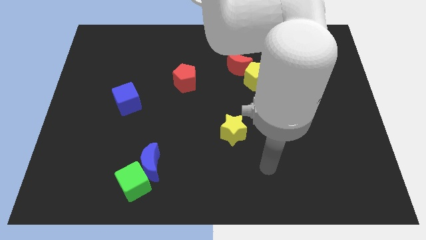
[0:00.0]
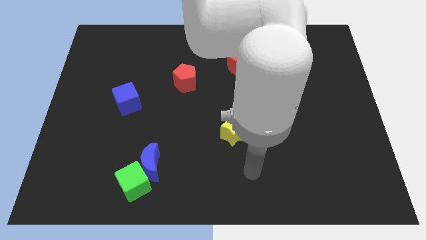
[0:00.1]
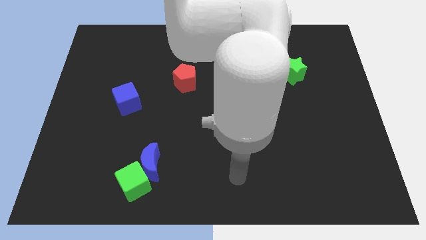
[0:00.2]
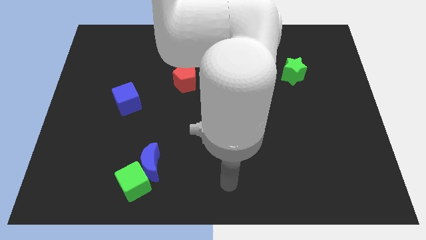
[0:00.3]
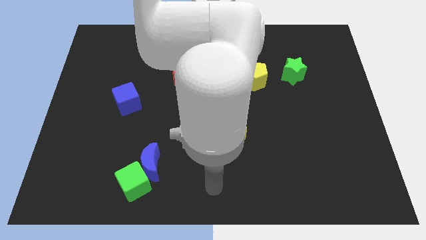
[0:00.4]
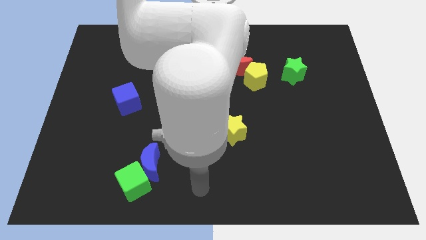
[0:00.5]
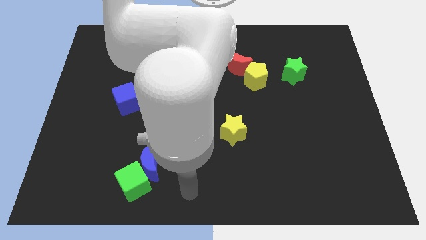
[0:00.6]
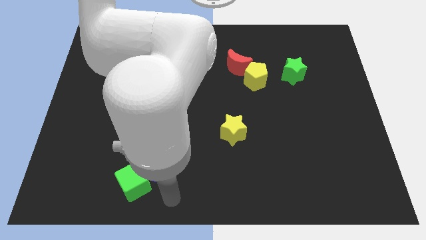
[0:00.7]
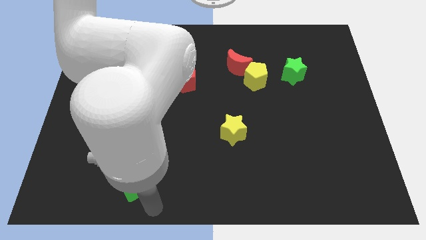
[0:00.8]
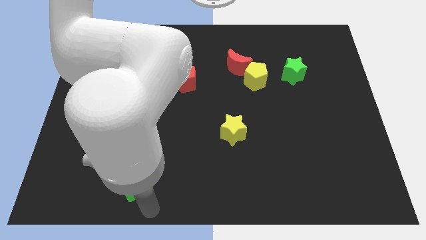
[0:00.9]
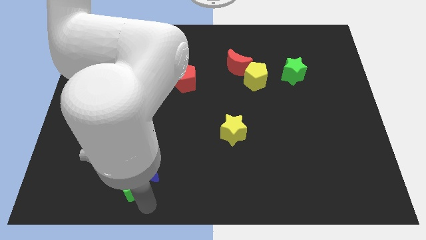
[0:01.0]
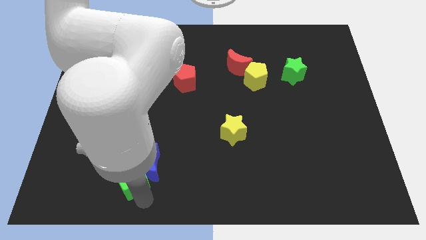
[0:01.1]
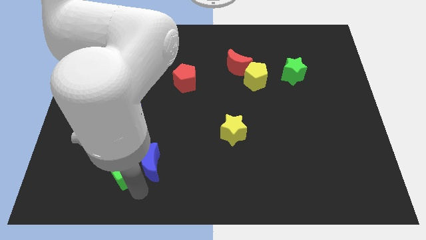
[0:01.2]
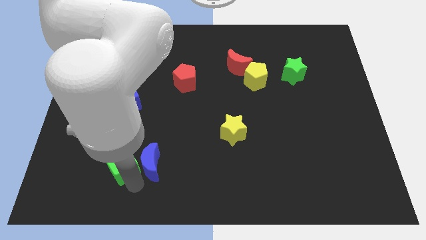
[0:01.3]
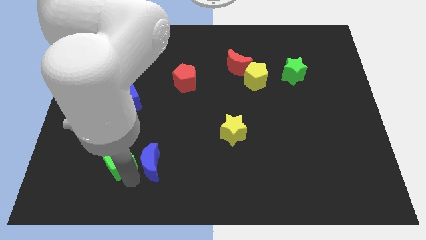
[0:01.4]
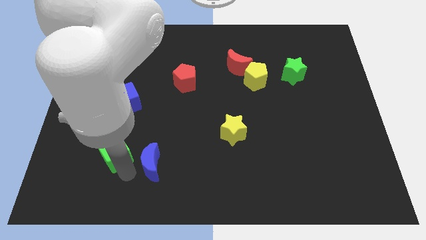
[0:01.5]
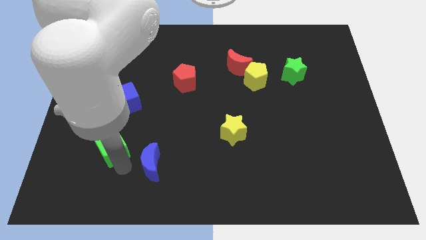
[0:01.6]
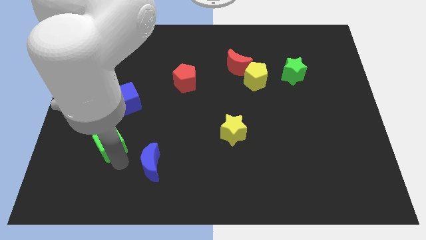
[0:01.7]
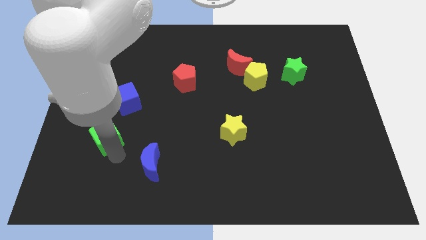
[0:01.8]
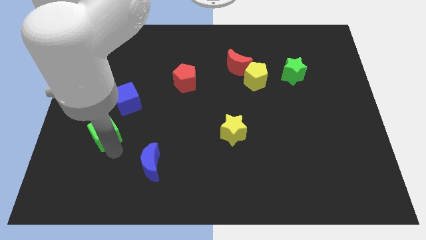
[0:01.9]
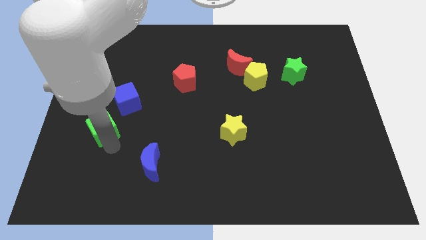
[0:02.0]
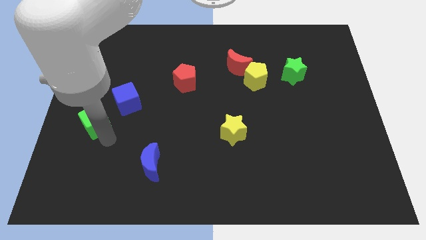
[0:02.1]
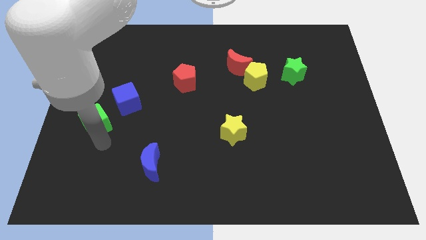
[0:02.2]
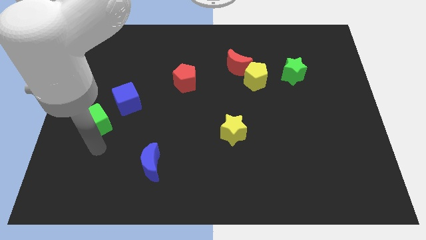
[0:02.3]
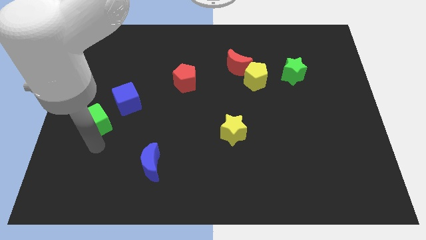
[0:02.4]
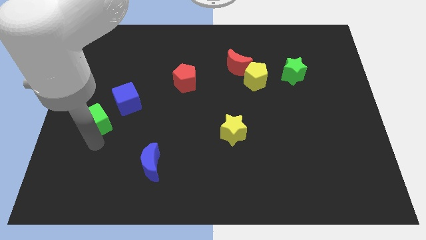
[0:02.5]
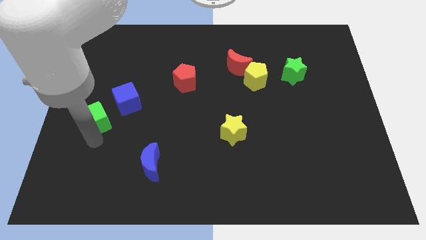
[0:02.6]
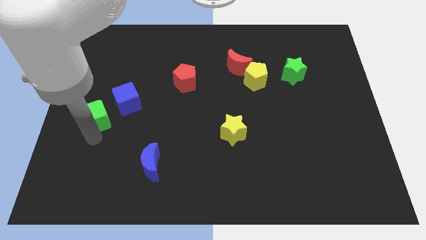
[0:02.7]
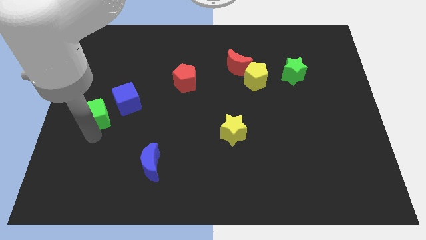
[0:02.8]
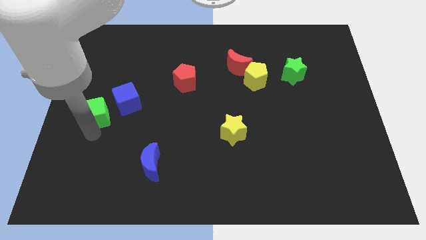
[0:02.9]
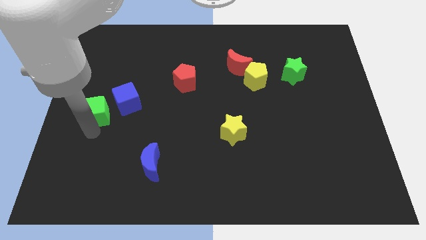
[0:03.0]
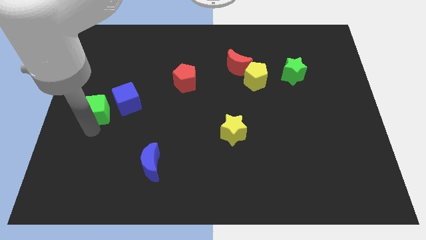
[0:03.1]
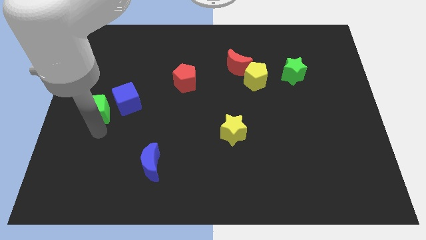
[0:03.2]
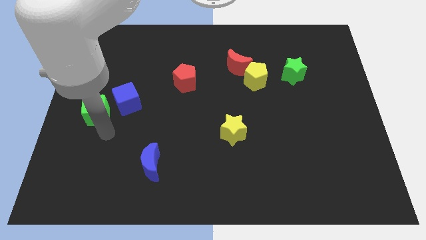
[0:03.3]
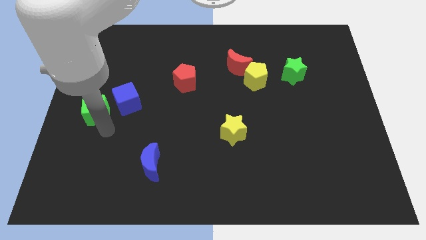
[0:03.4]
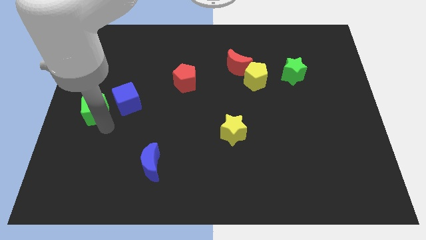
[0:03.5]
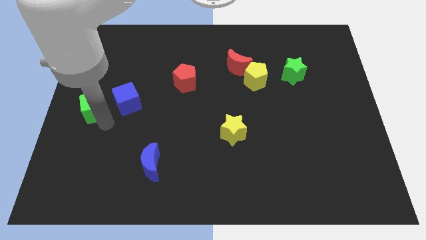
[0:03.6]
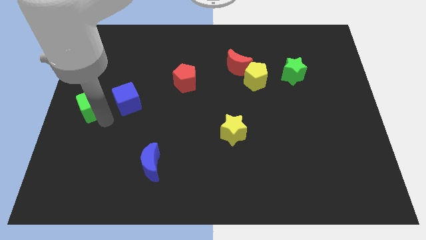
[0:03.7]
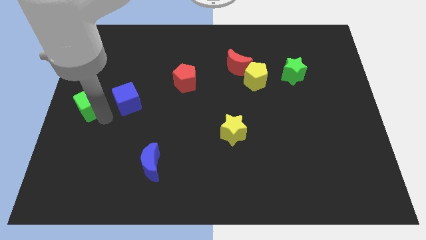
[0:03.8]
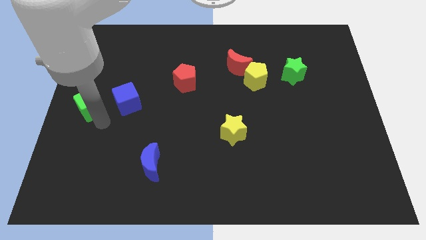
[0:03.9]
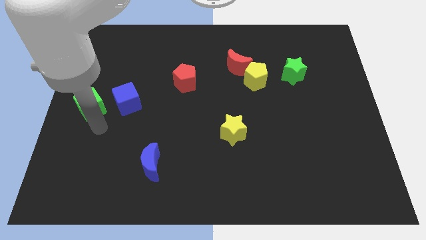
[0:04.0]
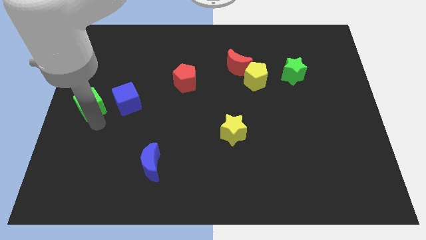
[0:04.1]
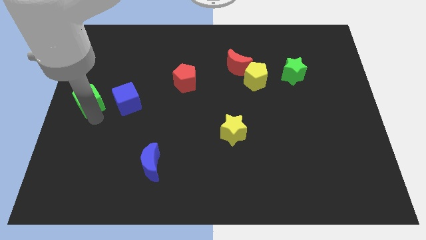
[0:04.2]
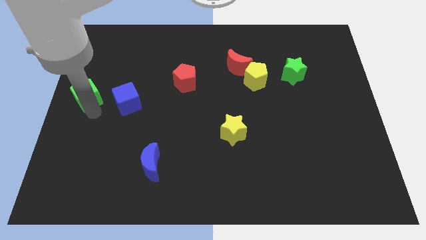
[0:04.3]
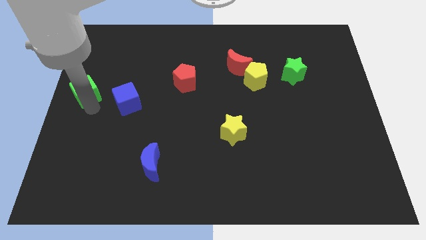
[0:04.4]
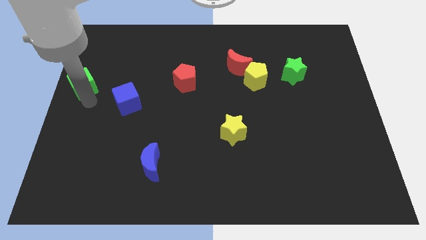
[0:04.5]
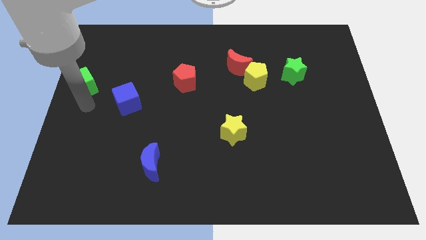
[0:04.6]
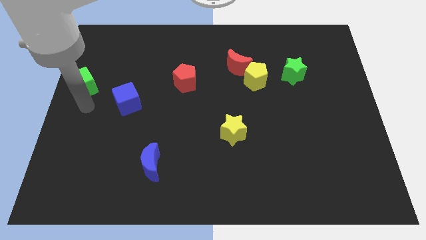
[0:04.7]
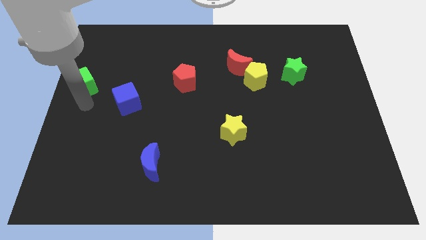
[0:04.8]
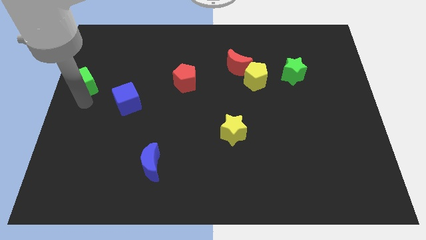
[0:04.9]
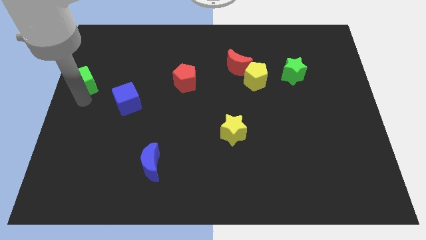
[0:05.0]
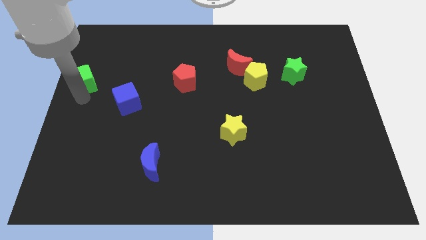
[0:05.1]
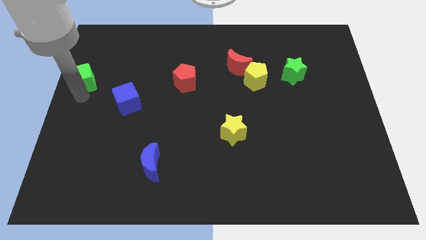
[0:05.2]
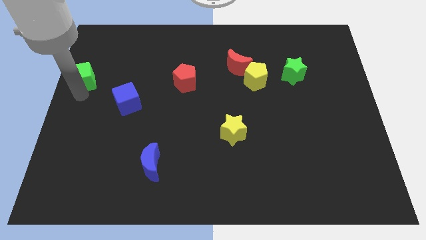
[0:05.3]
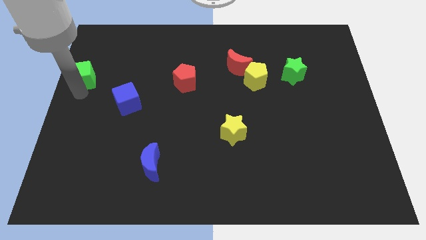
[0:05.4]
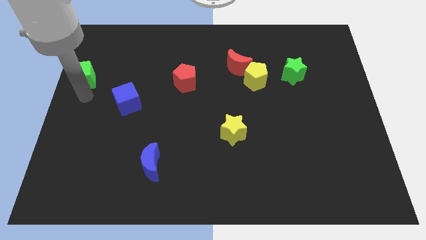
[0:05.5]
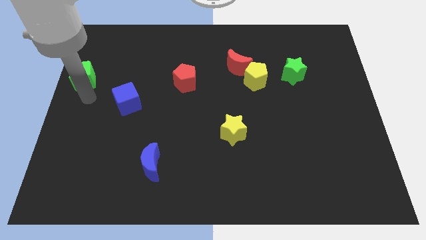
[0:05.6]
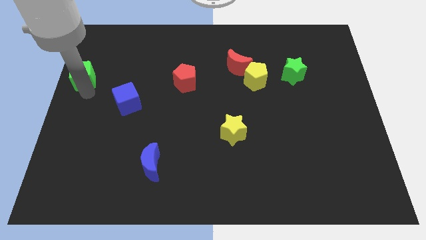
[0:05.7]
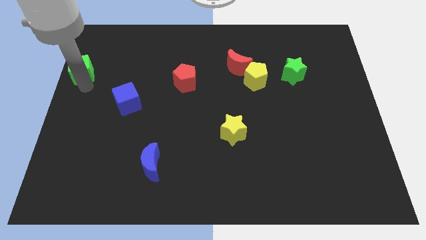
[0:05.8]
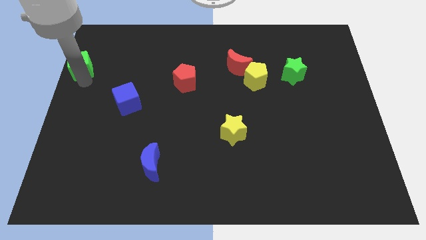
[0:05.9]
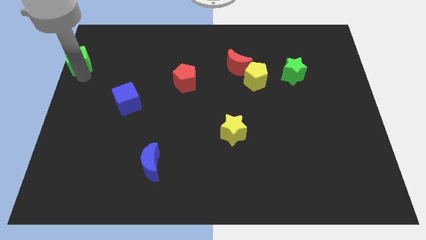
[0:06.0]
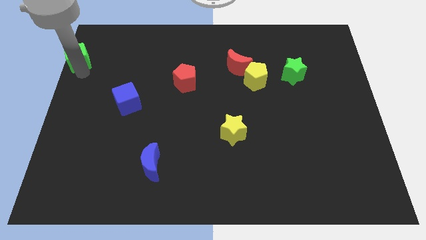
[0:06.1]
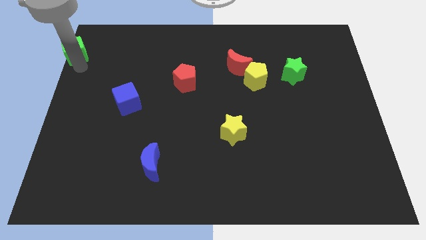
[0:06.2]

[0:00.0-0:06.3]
push the green cube to the top left
